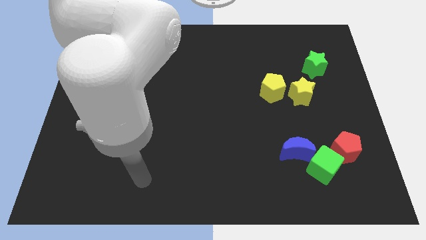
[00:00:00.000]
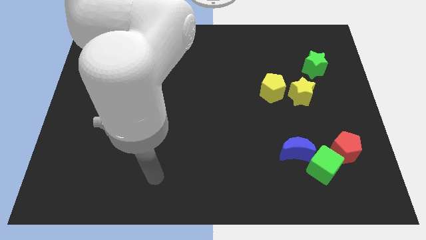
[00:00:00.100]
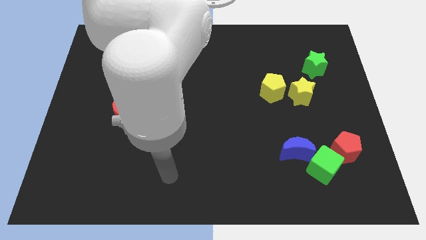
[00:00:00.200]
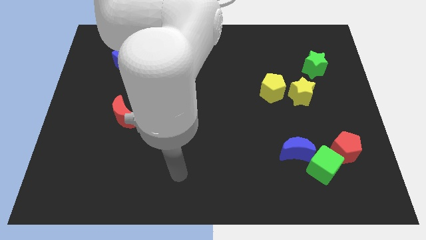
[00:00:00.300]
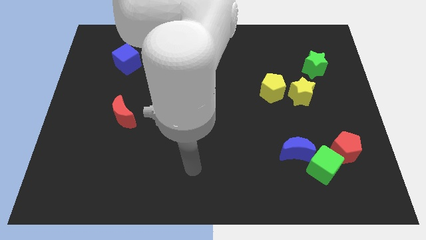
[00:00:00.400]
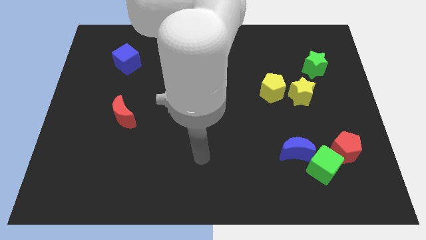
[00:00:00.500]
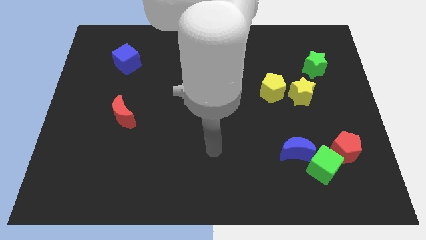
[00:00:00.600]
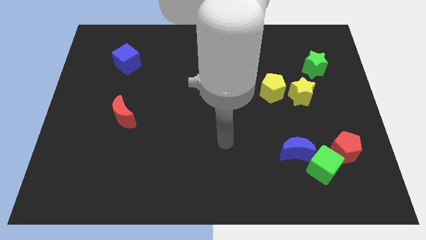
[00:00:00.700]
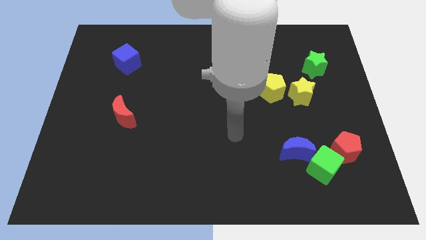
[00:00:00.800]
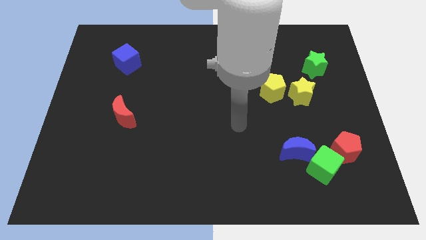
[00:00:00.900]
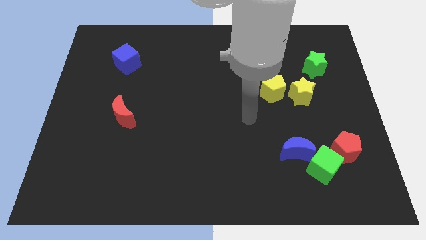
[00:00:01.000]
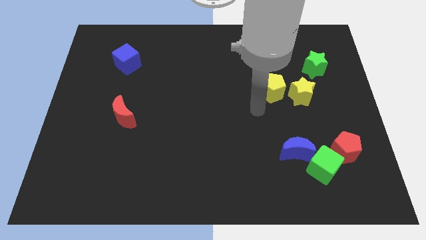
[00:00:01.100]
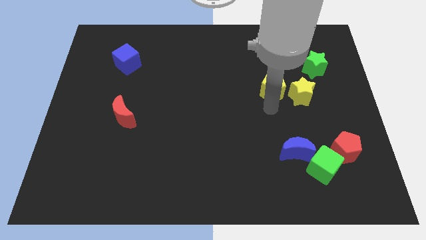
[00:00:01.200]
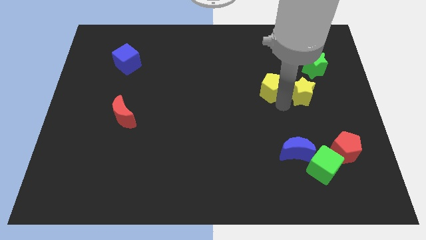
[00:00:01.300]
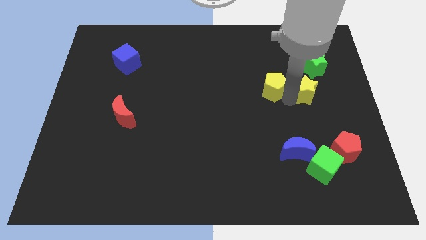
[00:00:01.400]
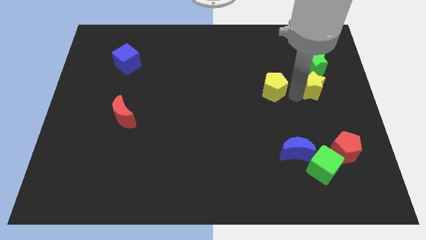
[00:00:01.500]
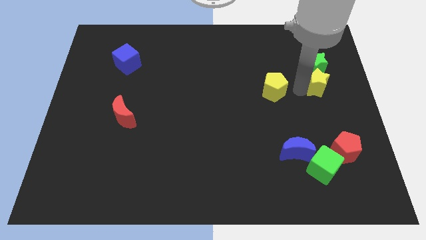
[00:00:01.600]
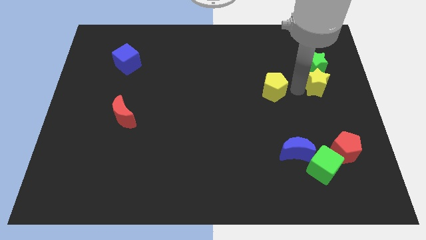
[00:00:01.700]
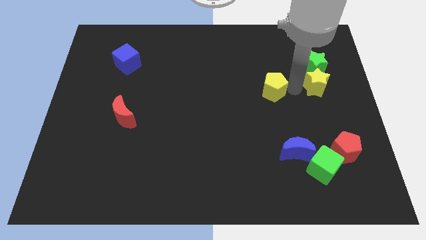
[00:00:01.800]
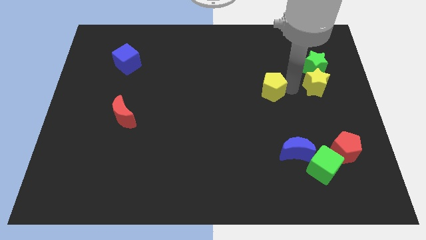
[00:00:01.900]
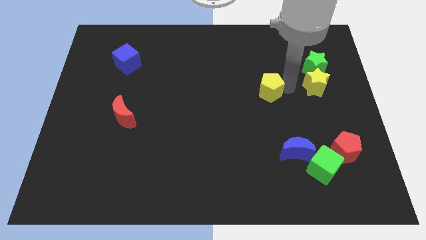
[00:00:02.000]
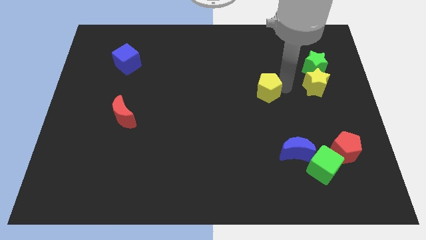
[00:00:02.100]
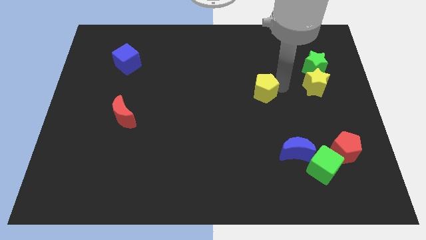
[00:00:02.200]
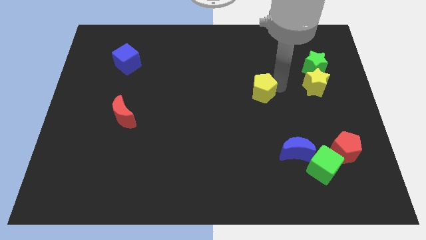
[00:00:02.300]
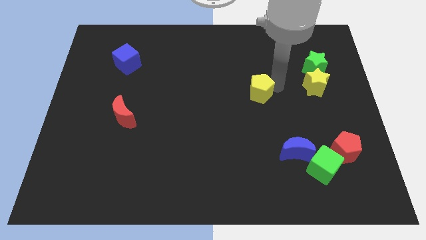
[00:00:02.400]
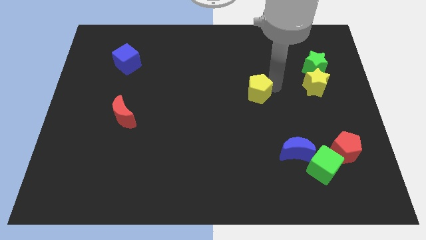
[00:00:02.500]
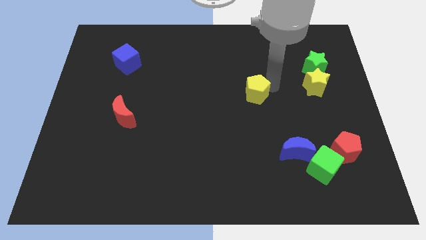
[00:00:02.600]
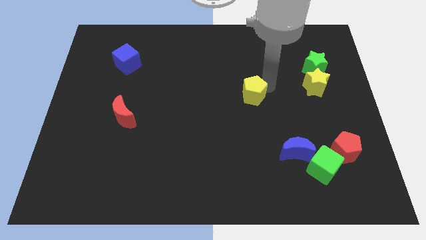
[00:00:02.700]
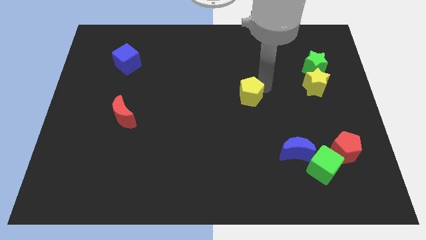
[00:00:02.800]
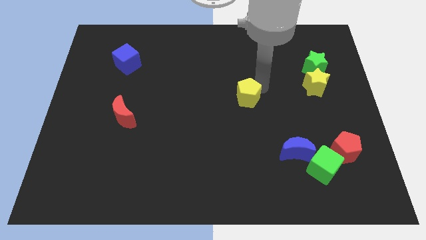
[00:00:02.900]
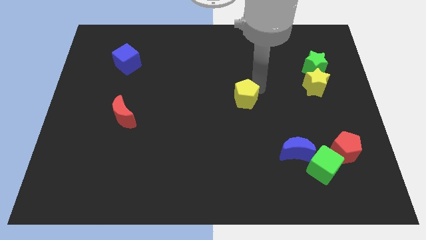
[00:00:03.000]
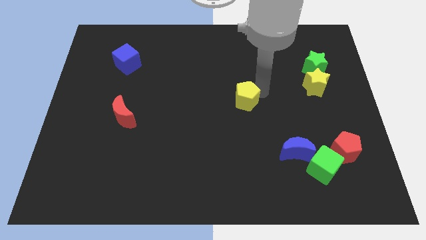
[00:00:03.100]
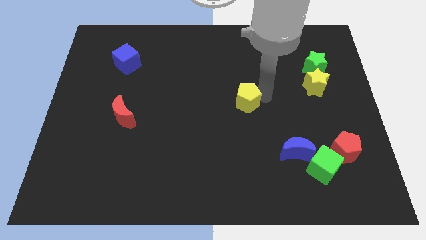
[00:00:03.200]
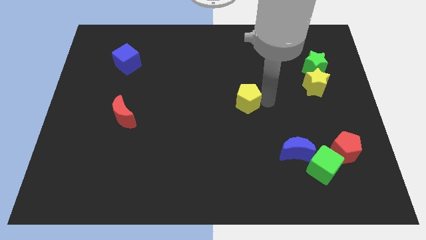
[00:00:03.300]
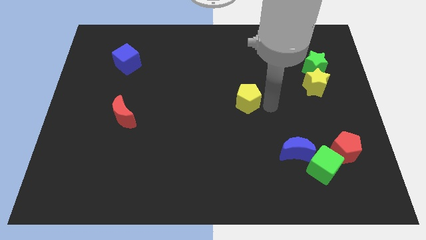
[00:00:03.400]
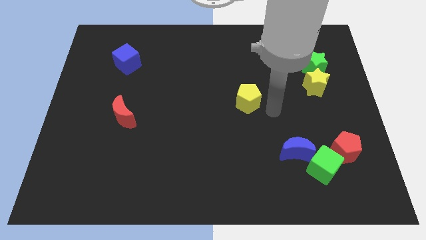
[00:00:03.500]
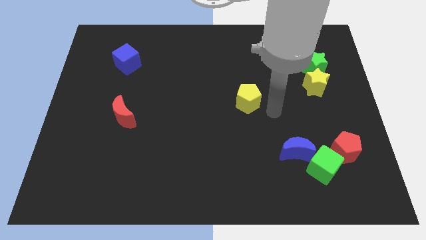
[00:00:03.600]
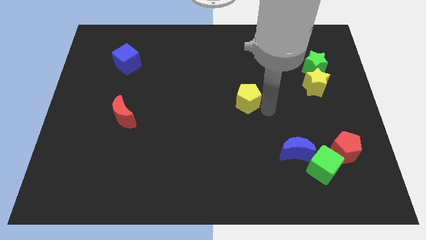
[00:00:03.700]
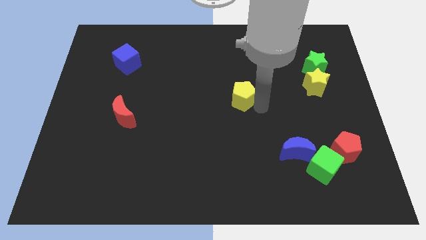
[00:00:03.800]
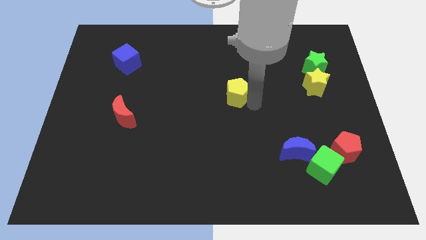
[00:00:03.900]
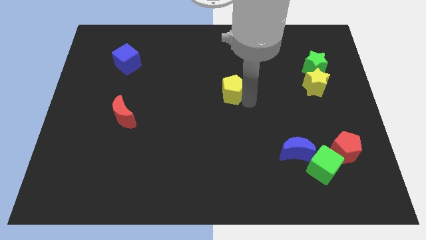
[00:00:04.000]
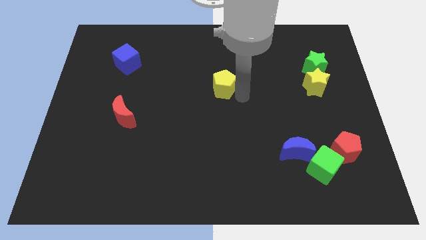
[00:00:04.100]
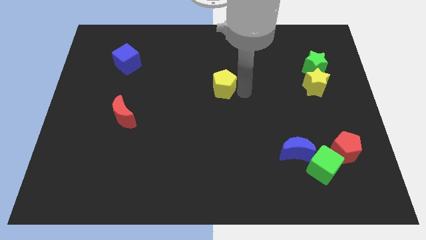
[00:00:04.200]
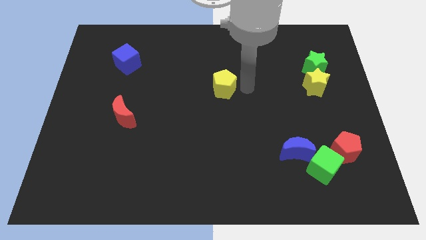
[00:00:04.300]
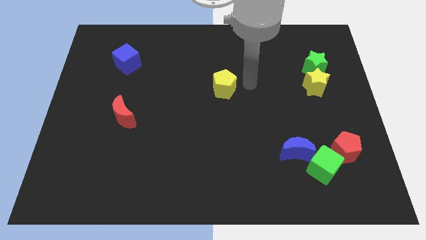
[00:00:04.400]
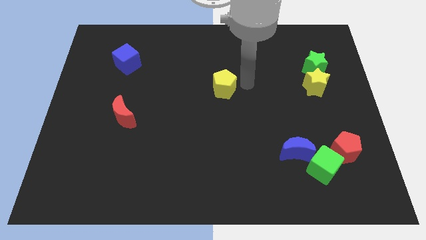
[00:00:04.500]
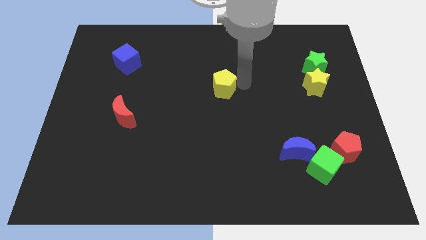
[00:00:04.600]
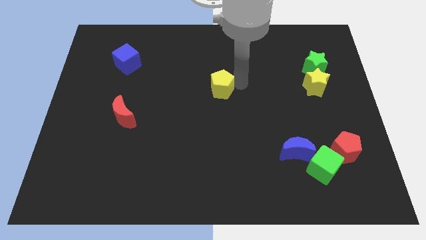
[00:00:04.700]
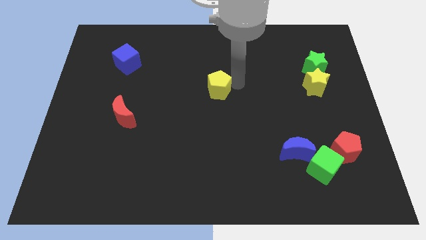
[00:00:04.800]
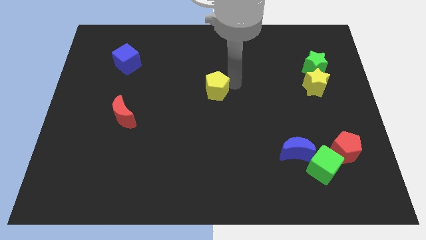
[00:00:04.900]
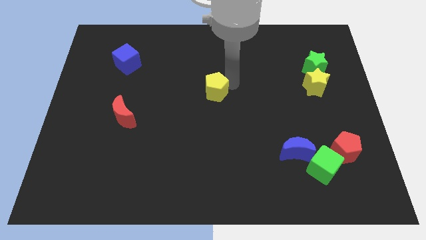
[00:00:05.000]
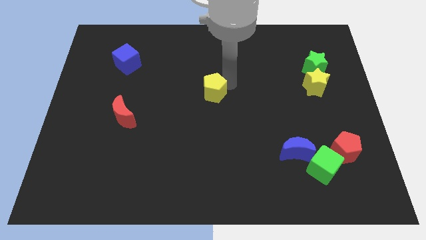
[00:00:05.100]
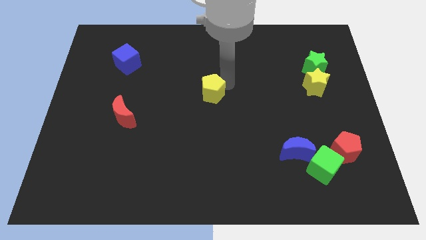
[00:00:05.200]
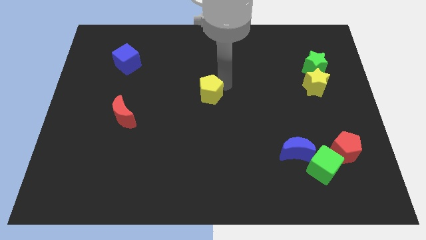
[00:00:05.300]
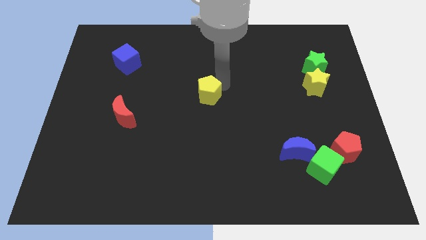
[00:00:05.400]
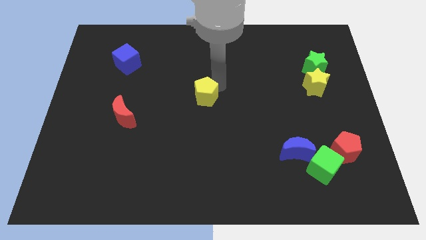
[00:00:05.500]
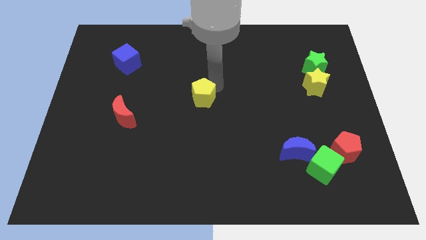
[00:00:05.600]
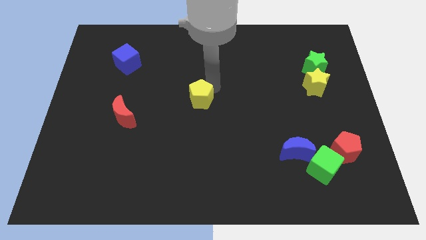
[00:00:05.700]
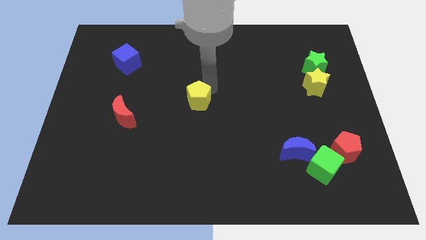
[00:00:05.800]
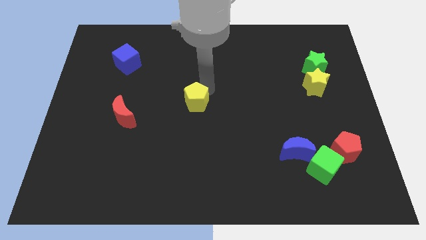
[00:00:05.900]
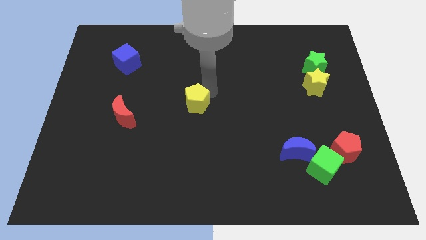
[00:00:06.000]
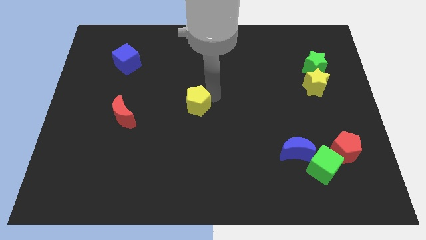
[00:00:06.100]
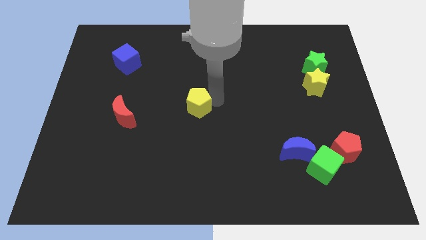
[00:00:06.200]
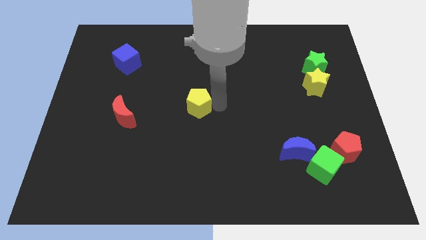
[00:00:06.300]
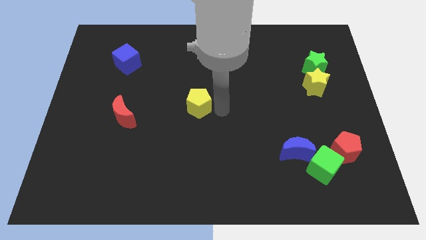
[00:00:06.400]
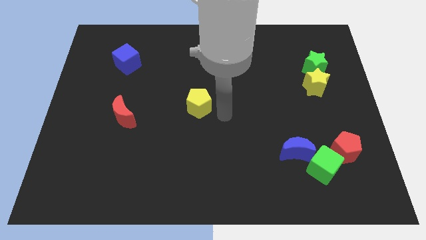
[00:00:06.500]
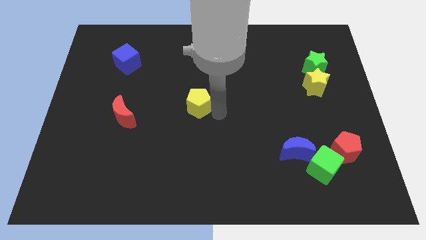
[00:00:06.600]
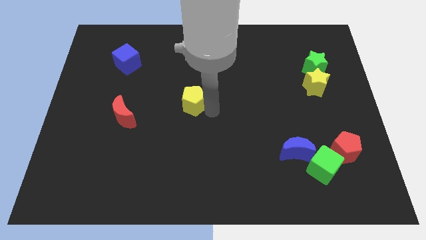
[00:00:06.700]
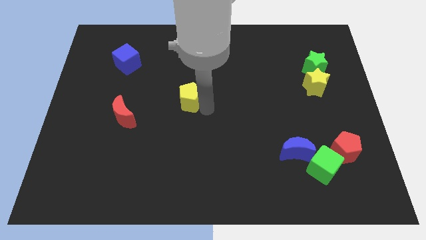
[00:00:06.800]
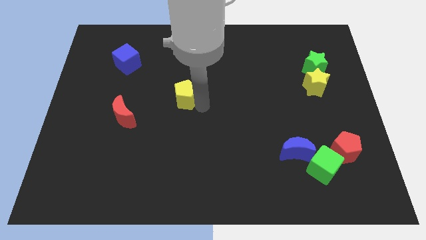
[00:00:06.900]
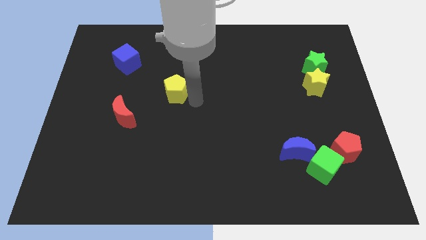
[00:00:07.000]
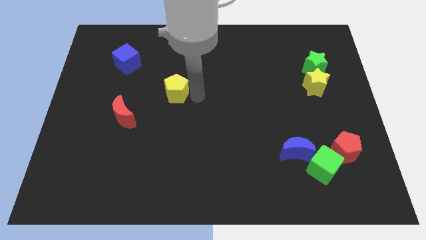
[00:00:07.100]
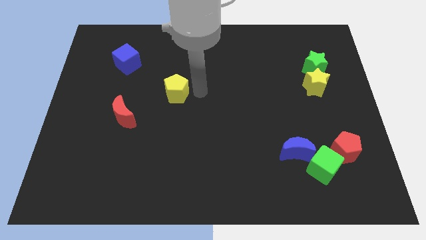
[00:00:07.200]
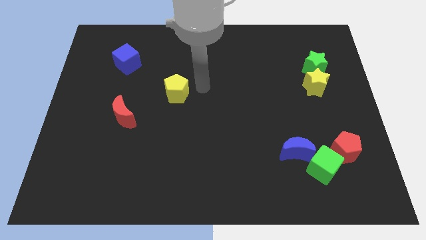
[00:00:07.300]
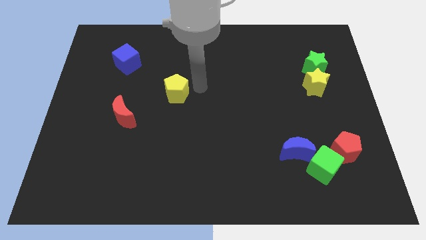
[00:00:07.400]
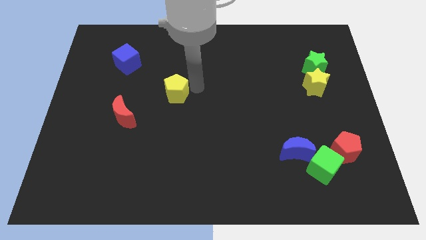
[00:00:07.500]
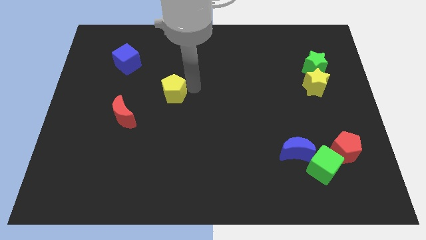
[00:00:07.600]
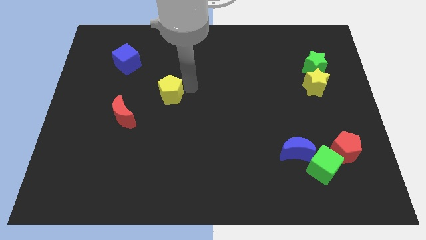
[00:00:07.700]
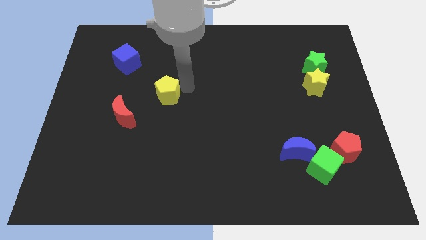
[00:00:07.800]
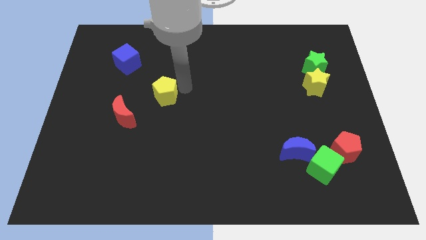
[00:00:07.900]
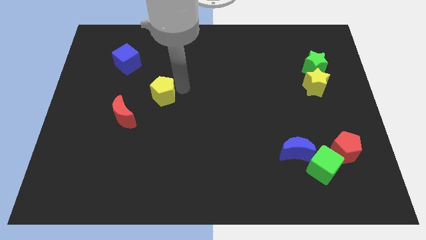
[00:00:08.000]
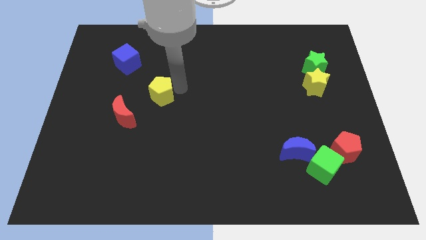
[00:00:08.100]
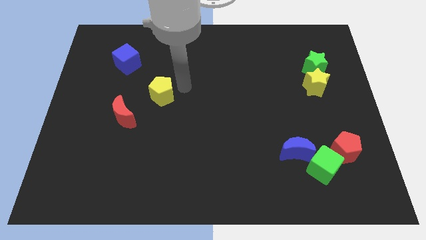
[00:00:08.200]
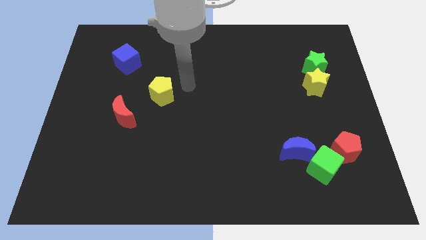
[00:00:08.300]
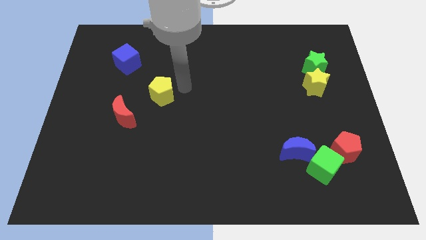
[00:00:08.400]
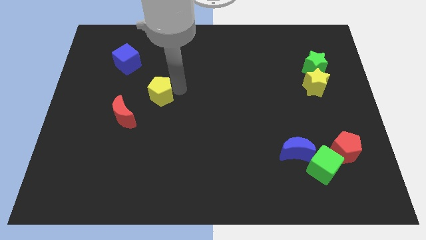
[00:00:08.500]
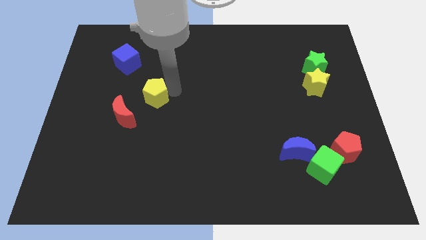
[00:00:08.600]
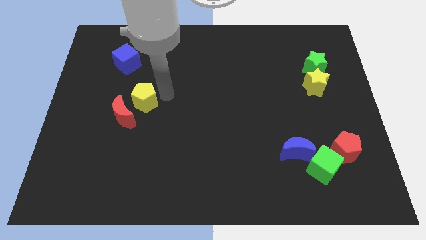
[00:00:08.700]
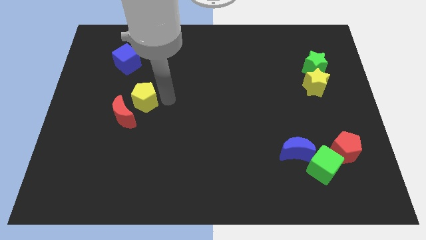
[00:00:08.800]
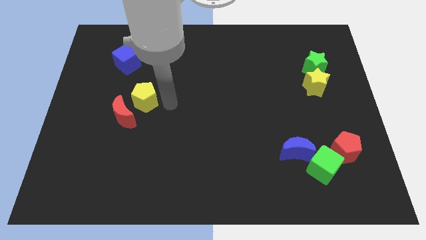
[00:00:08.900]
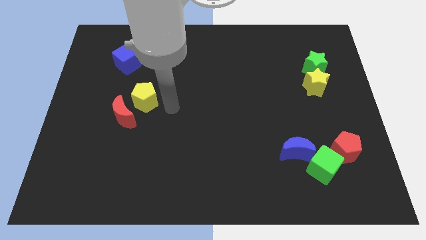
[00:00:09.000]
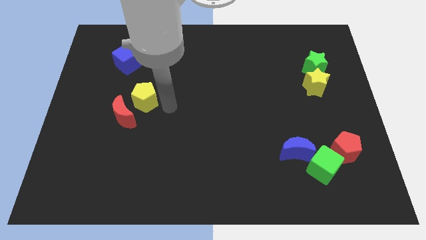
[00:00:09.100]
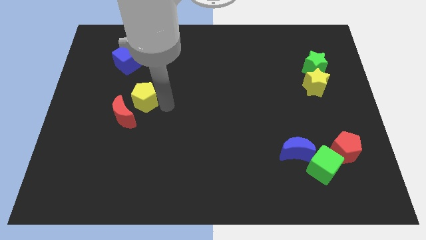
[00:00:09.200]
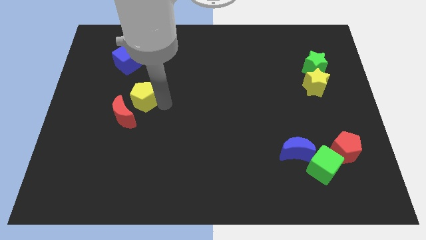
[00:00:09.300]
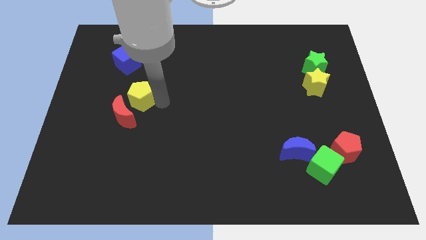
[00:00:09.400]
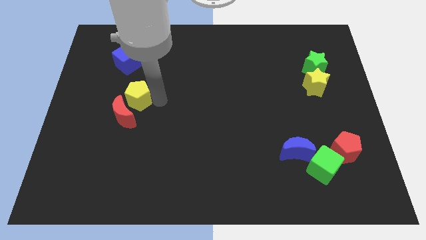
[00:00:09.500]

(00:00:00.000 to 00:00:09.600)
slide the yellow pentagon to the bottom of the blue cube
